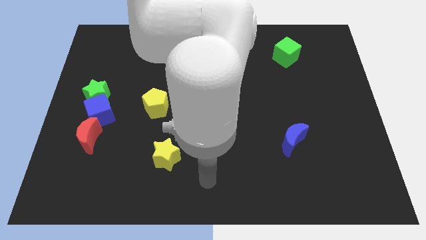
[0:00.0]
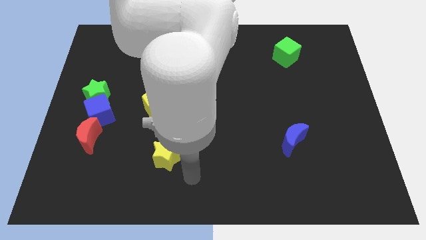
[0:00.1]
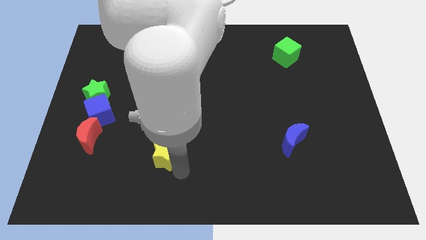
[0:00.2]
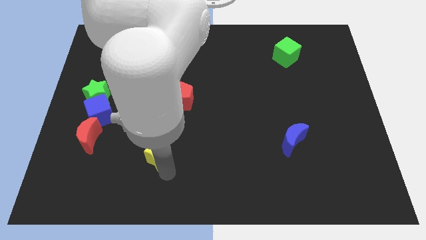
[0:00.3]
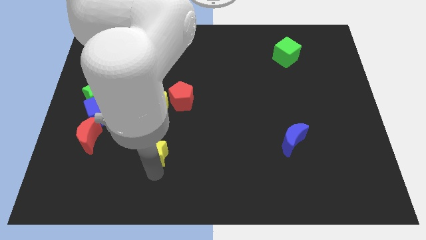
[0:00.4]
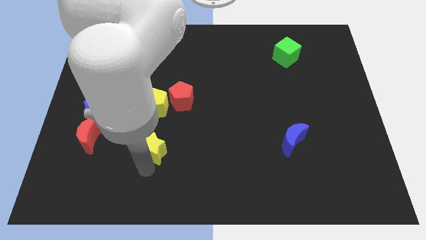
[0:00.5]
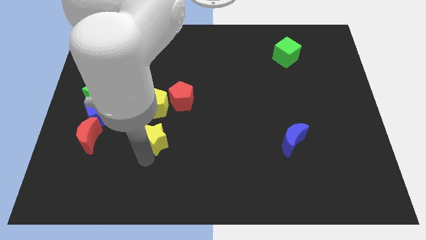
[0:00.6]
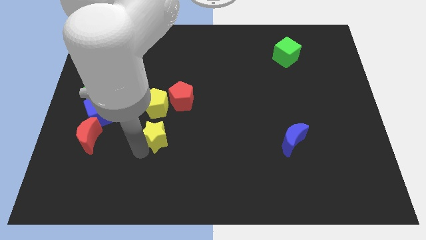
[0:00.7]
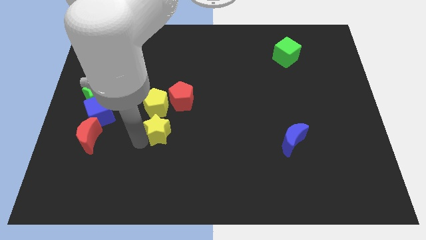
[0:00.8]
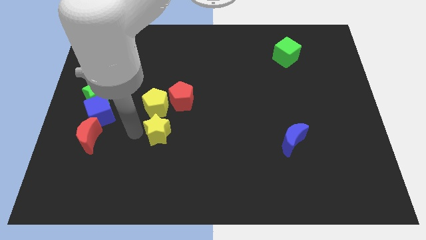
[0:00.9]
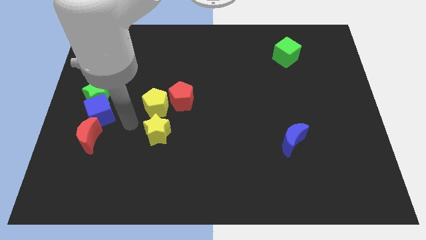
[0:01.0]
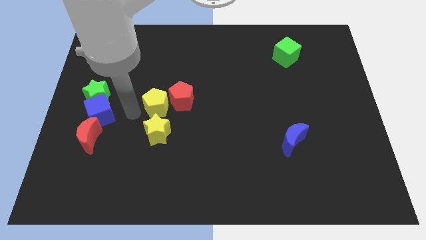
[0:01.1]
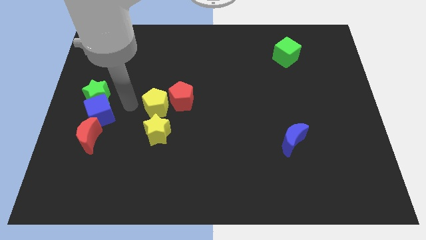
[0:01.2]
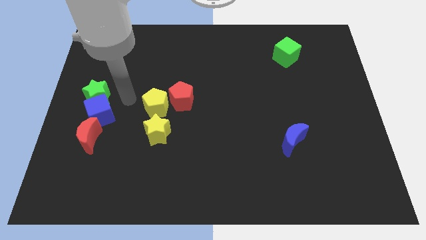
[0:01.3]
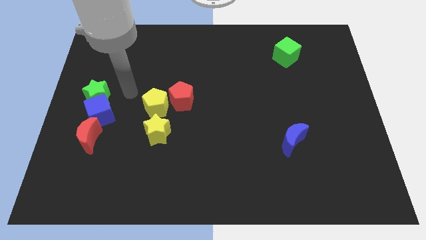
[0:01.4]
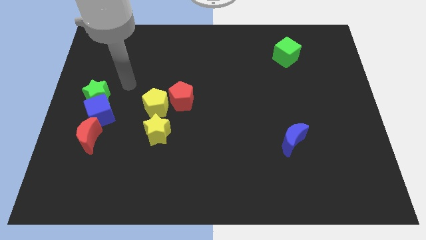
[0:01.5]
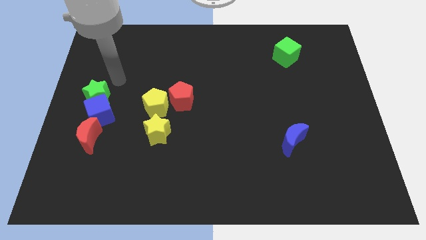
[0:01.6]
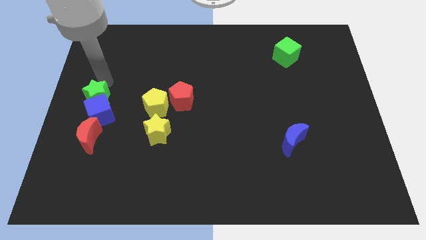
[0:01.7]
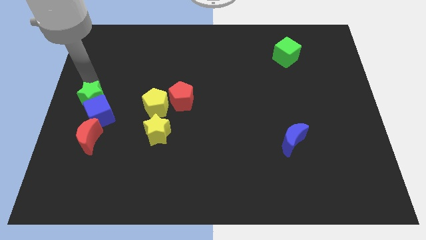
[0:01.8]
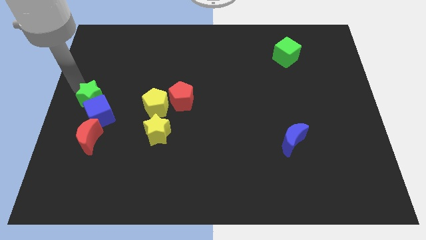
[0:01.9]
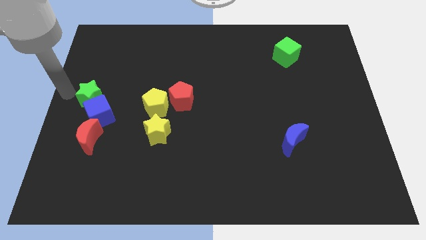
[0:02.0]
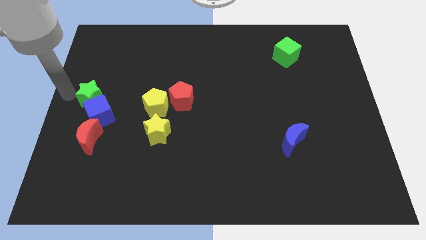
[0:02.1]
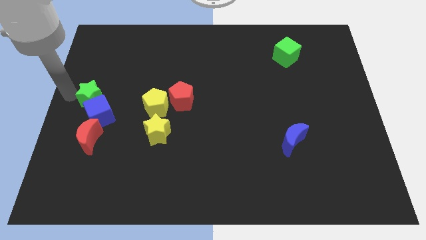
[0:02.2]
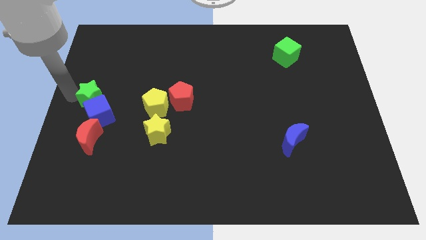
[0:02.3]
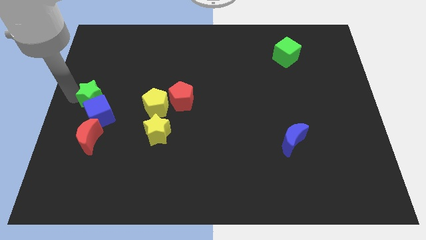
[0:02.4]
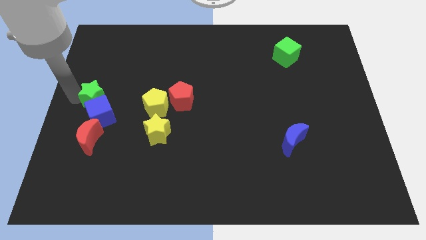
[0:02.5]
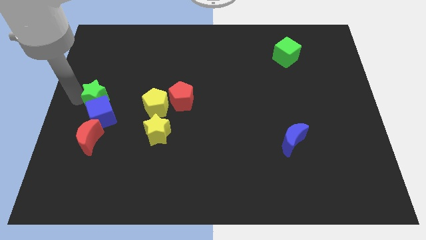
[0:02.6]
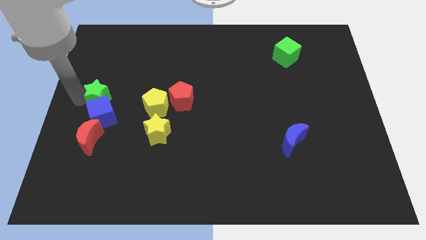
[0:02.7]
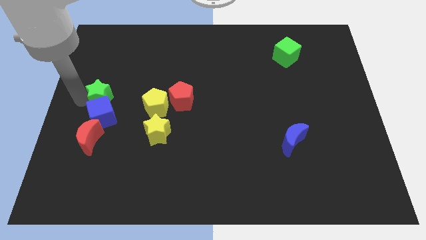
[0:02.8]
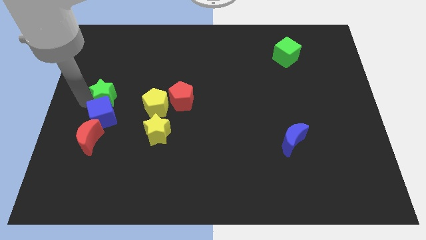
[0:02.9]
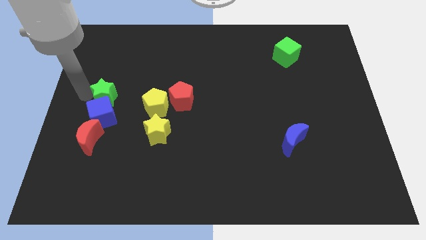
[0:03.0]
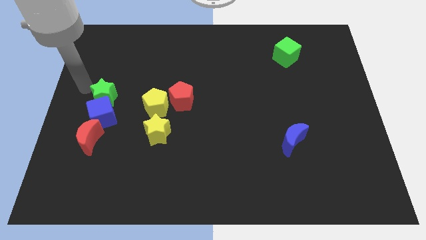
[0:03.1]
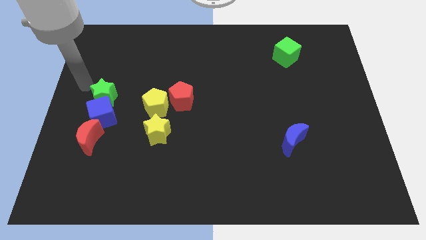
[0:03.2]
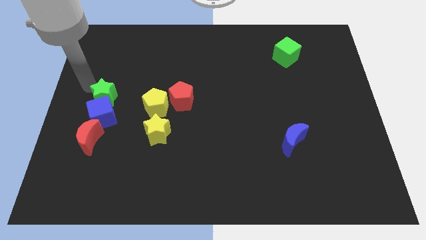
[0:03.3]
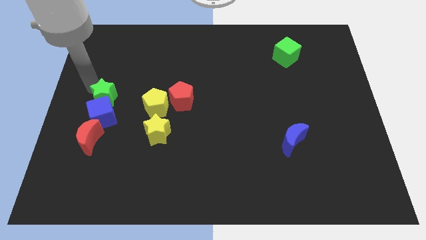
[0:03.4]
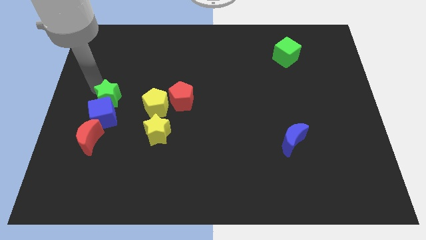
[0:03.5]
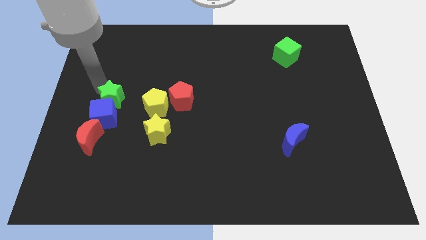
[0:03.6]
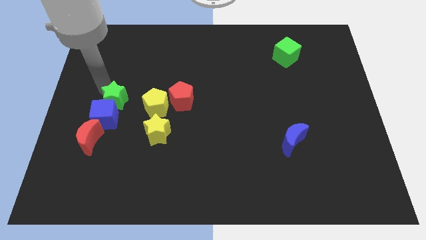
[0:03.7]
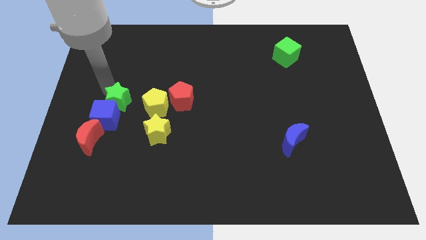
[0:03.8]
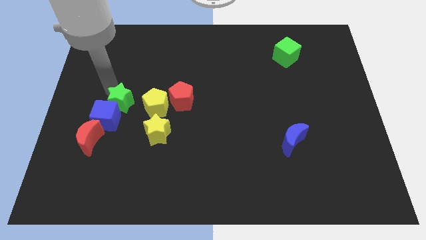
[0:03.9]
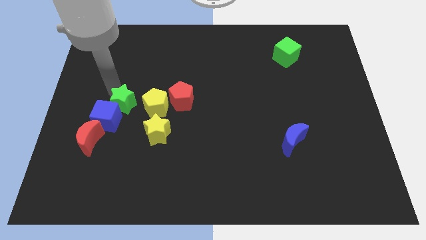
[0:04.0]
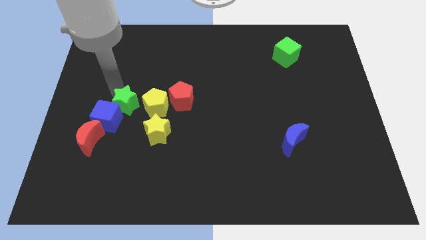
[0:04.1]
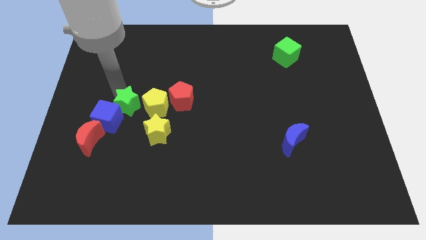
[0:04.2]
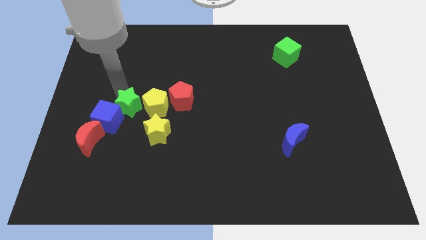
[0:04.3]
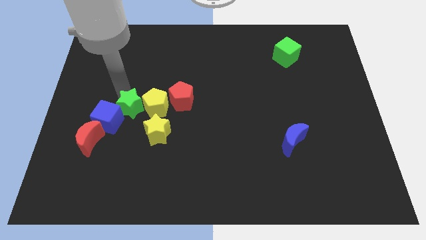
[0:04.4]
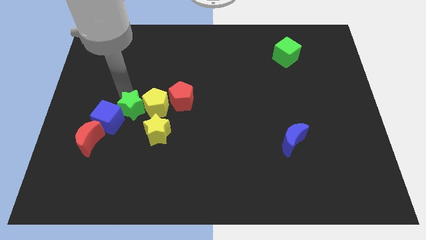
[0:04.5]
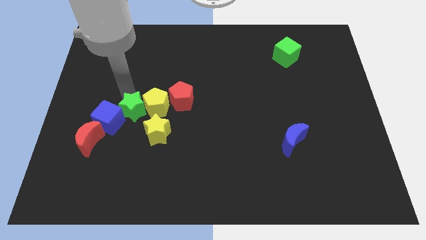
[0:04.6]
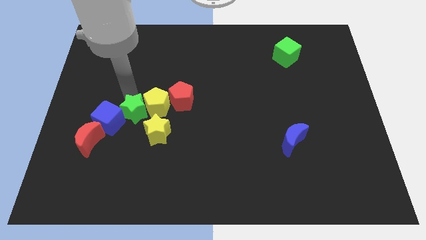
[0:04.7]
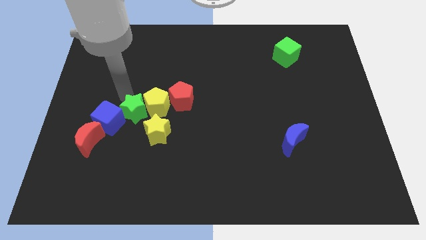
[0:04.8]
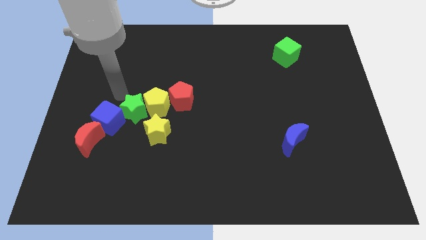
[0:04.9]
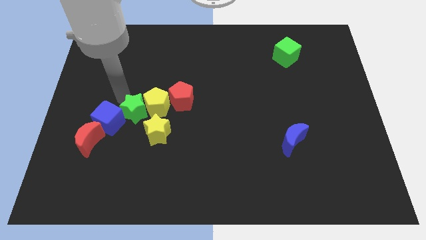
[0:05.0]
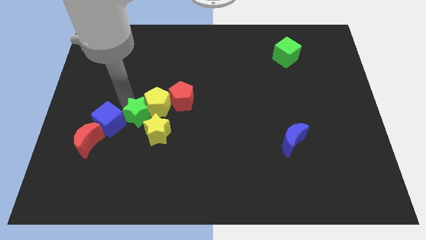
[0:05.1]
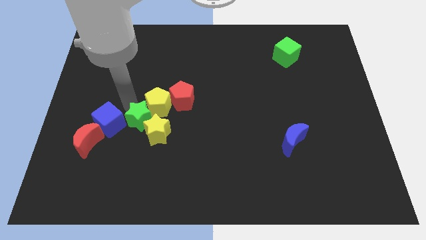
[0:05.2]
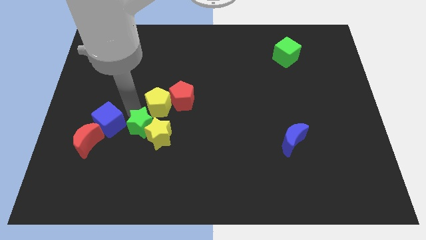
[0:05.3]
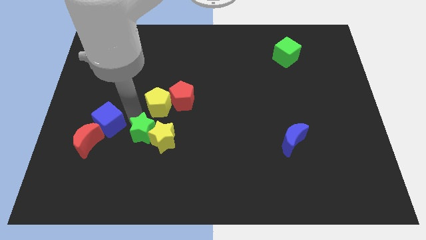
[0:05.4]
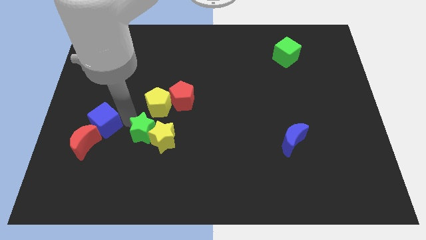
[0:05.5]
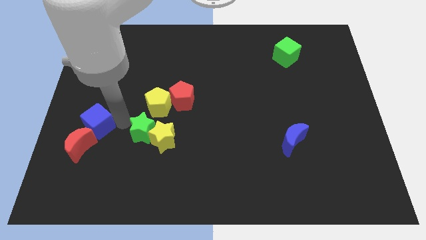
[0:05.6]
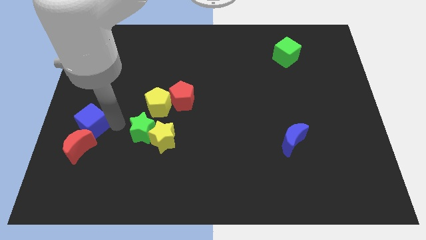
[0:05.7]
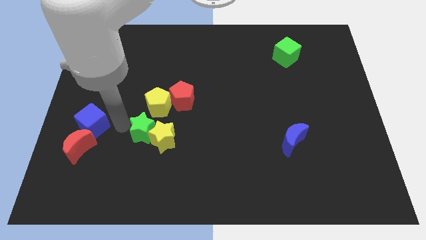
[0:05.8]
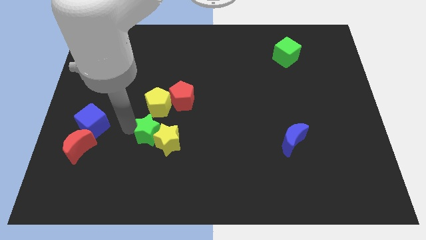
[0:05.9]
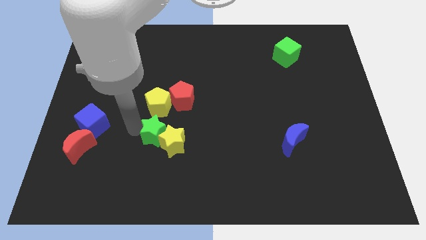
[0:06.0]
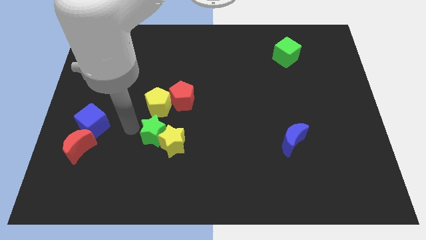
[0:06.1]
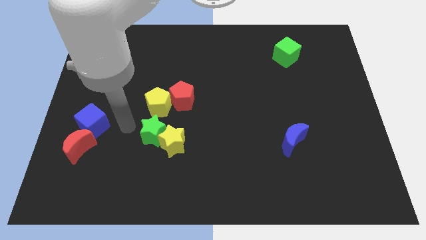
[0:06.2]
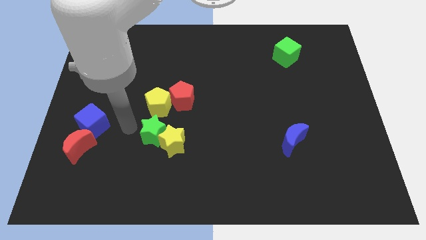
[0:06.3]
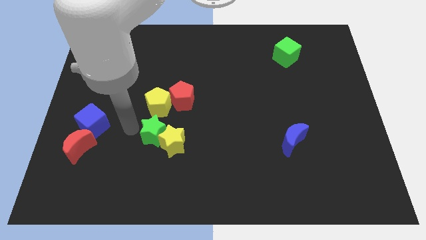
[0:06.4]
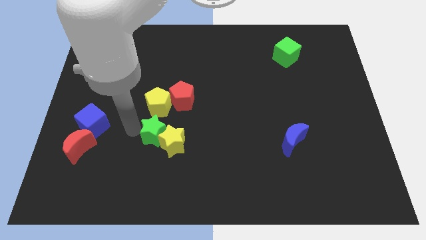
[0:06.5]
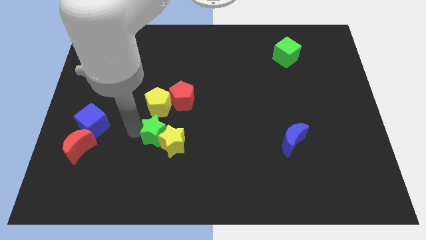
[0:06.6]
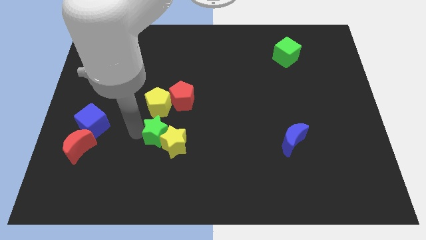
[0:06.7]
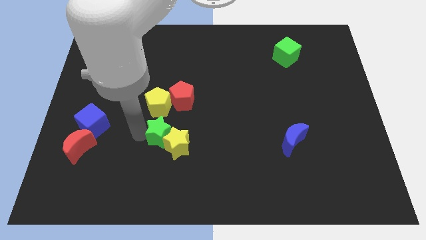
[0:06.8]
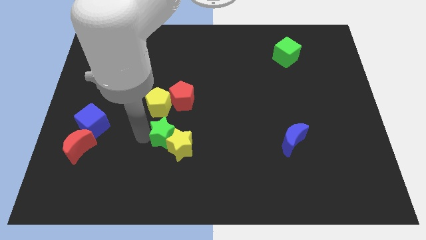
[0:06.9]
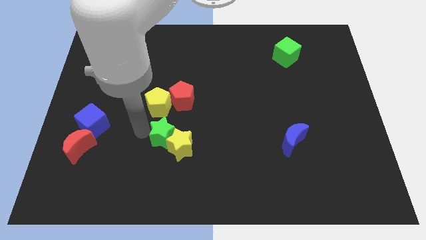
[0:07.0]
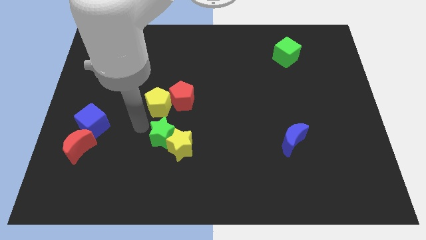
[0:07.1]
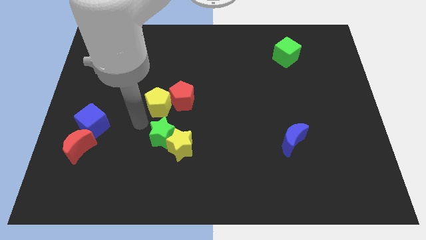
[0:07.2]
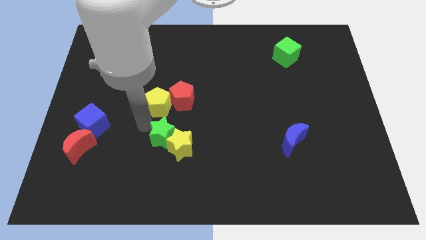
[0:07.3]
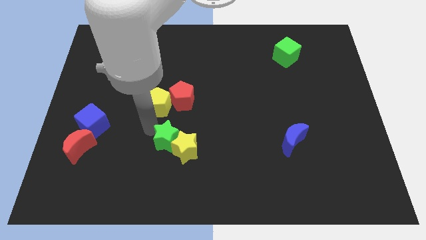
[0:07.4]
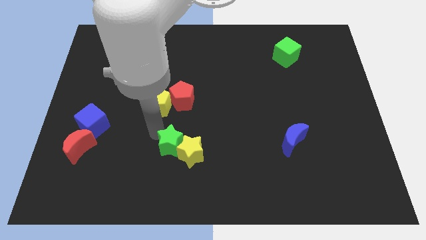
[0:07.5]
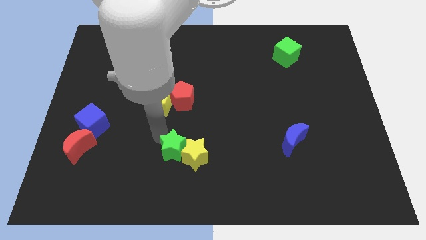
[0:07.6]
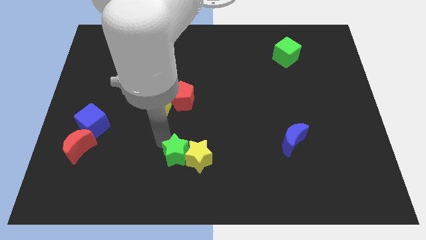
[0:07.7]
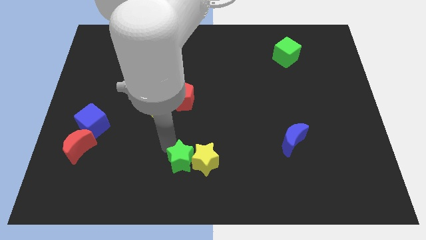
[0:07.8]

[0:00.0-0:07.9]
move the green star to the bottom
